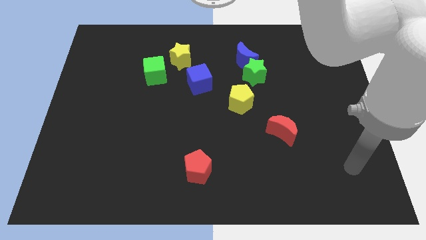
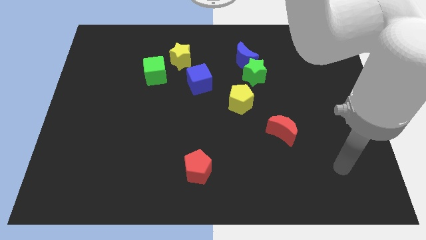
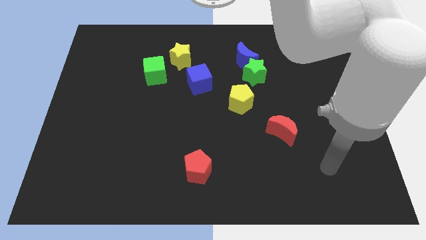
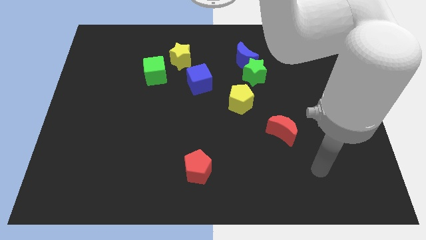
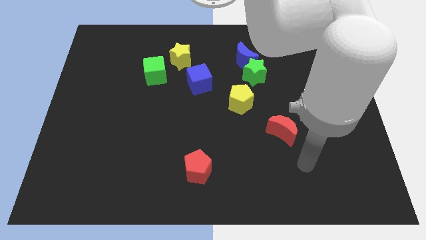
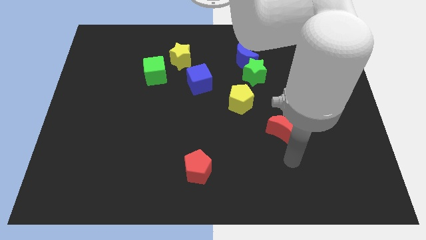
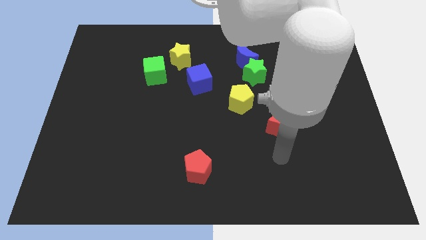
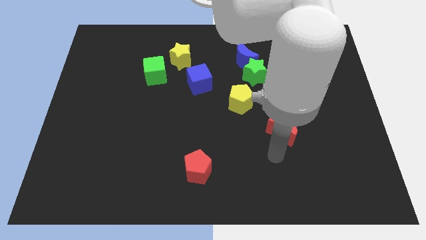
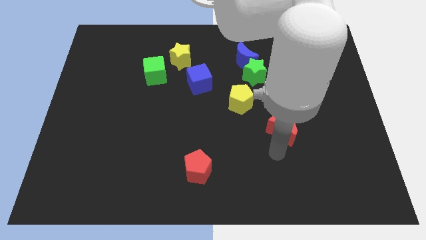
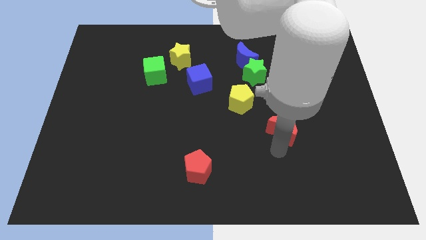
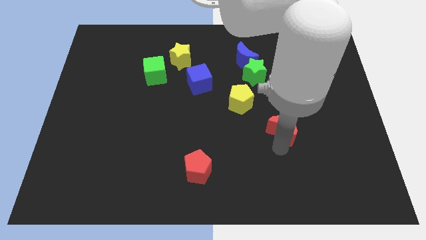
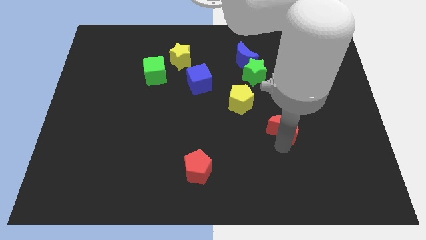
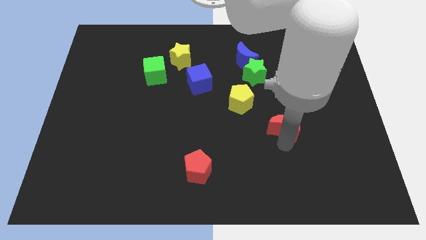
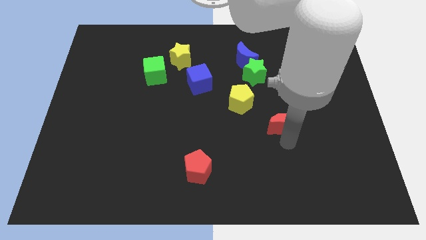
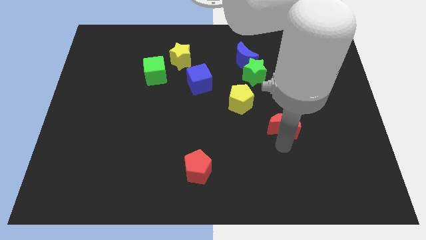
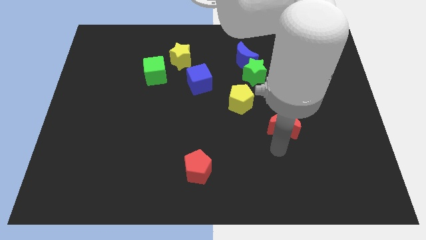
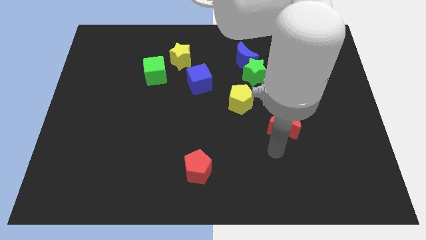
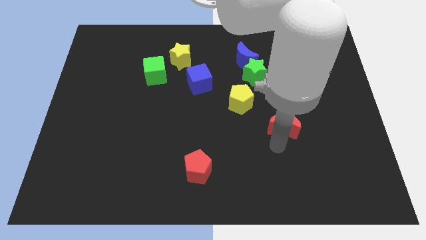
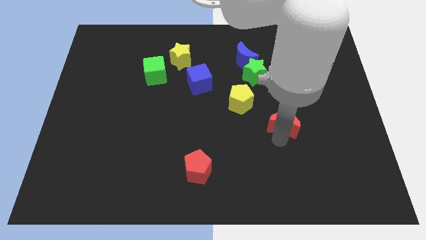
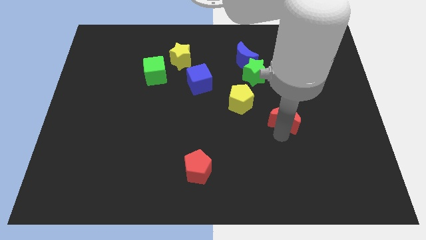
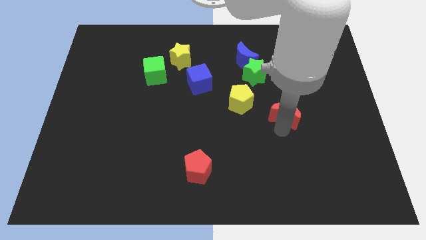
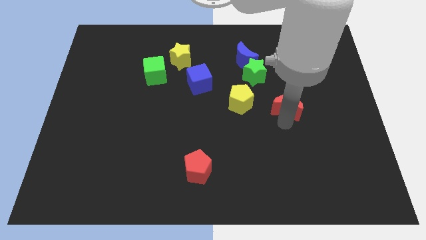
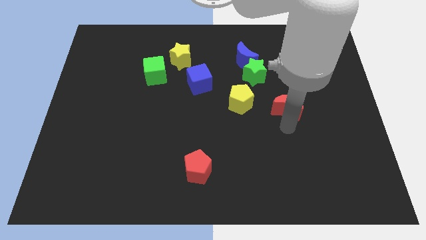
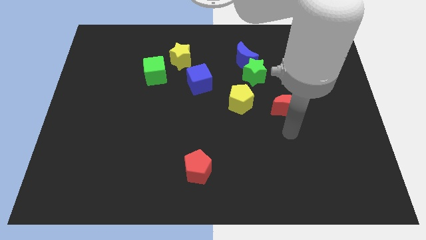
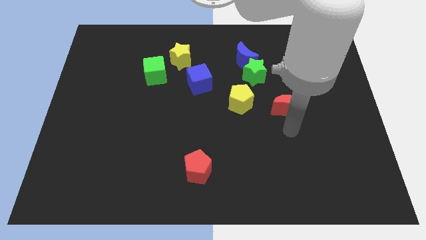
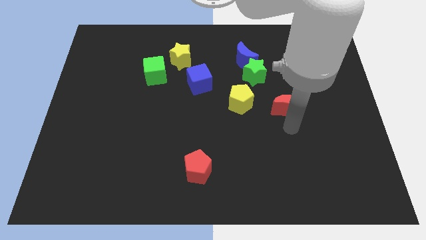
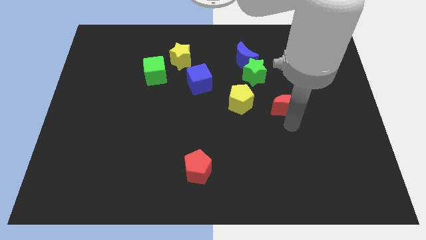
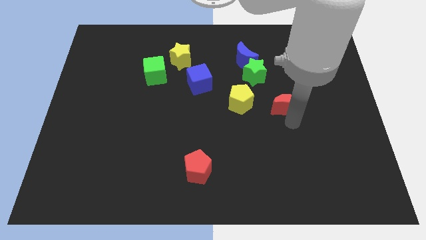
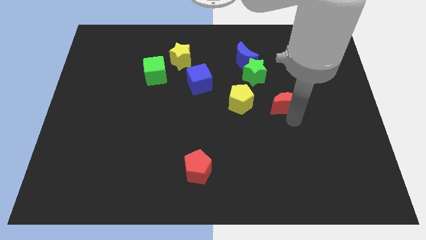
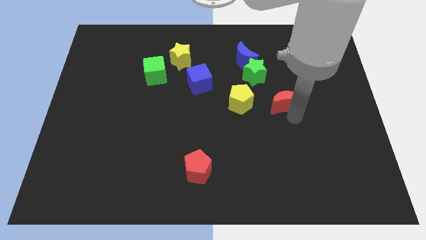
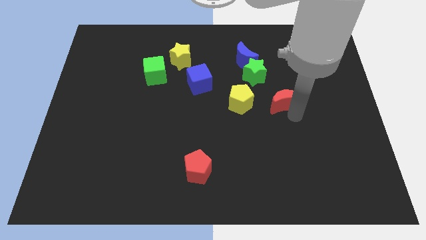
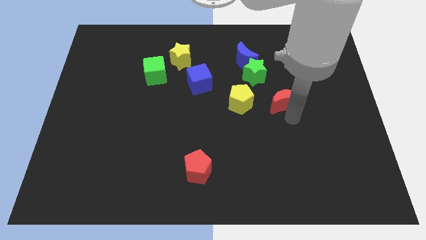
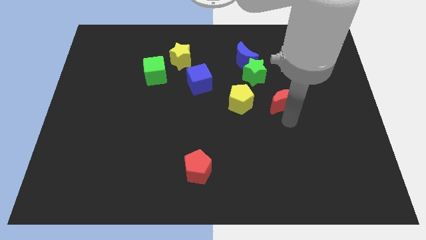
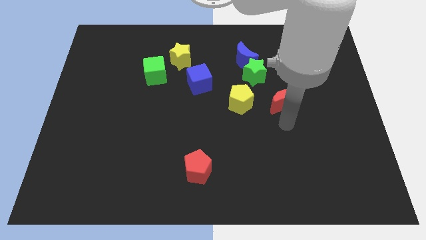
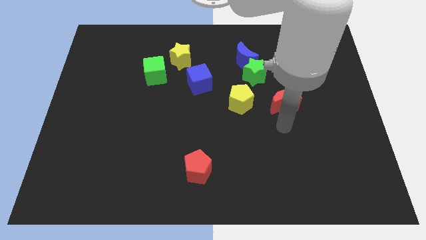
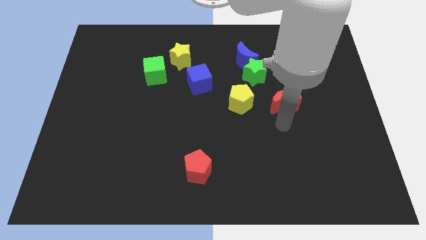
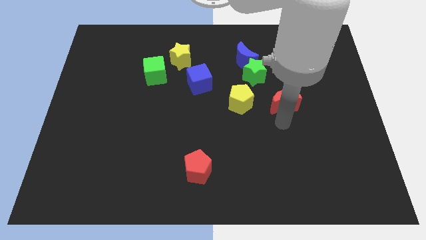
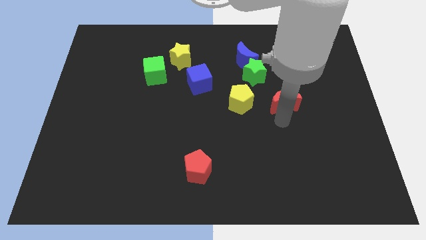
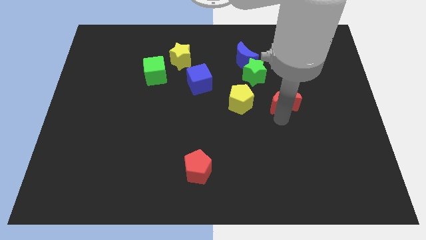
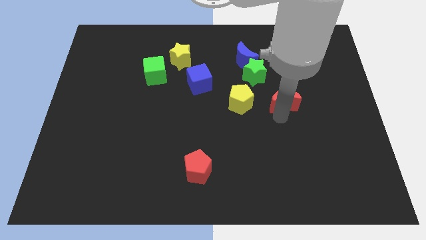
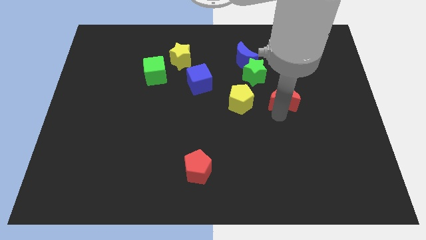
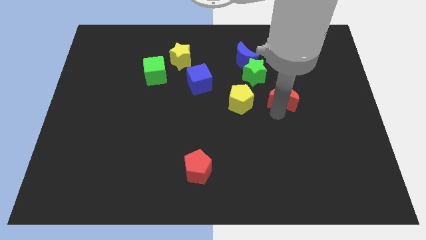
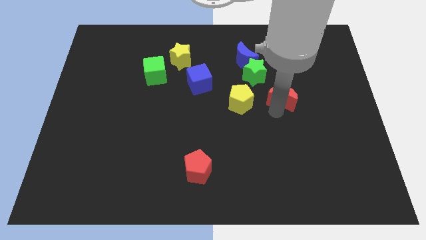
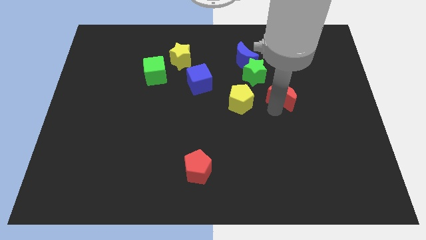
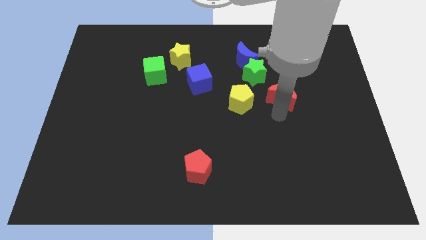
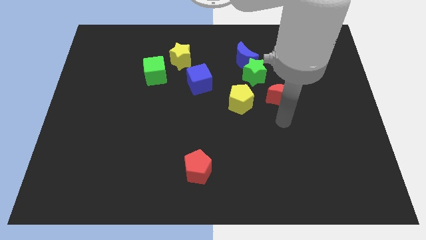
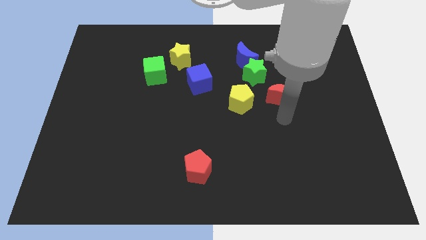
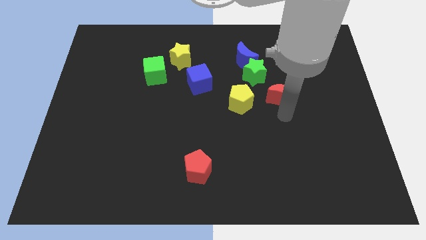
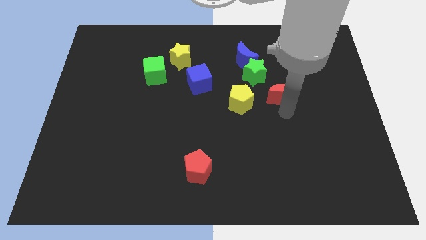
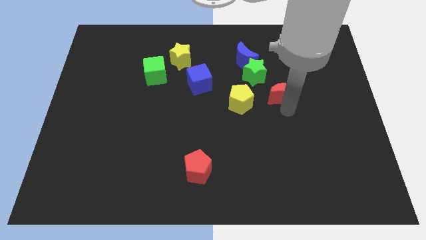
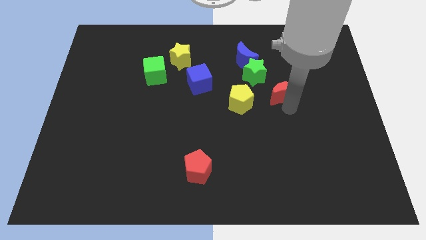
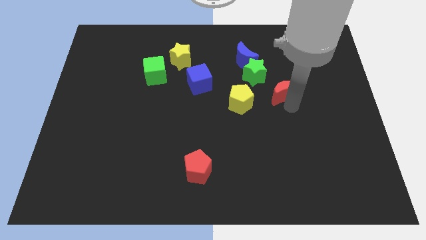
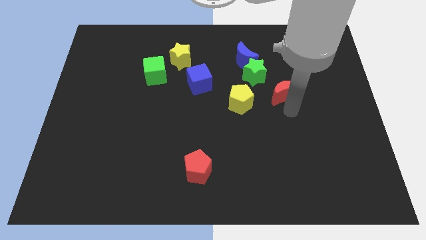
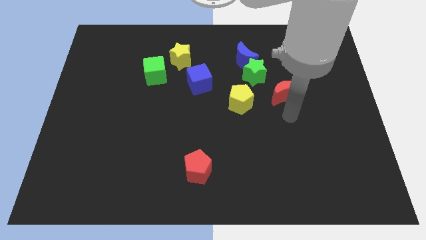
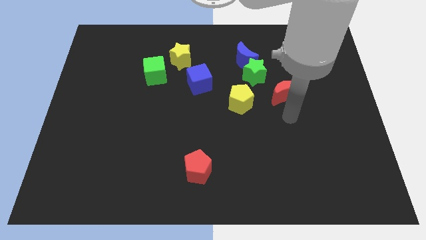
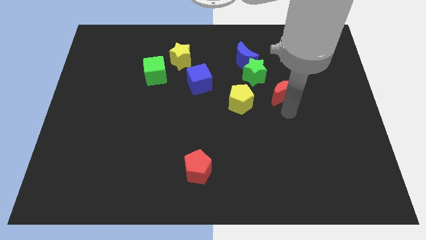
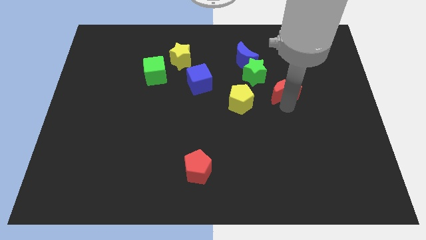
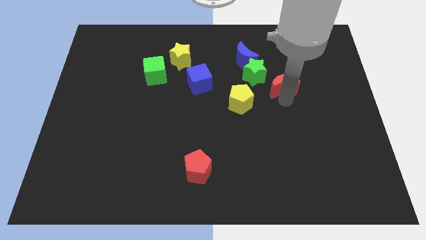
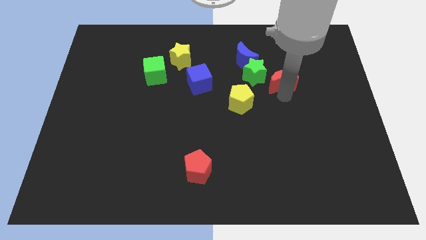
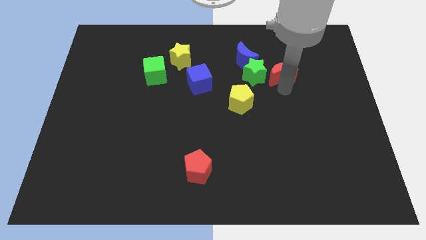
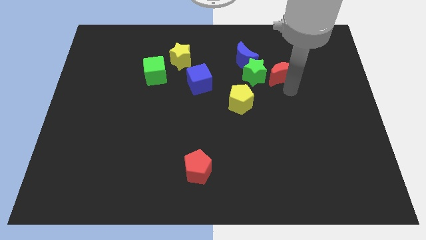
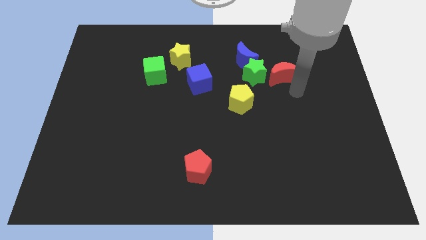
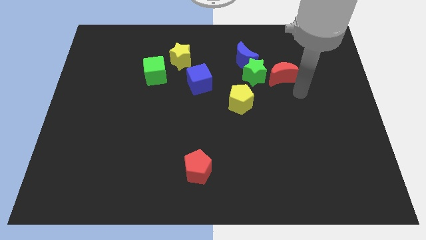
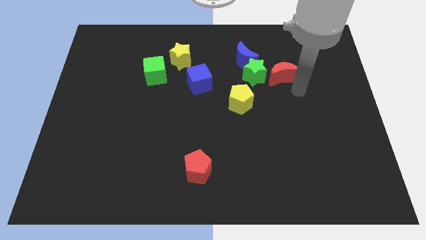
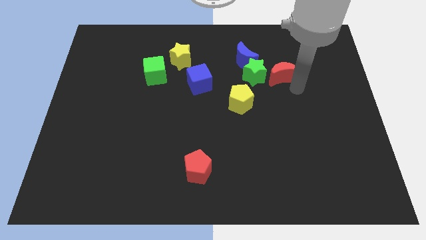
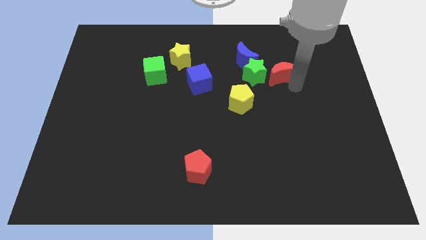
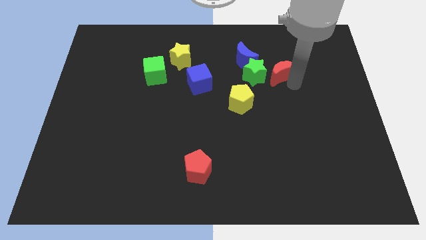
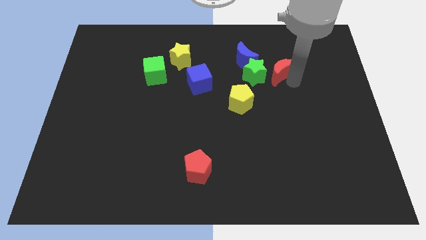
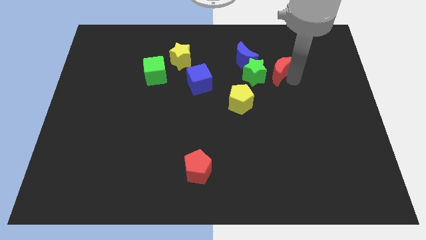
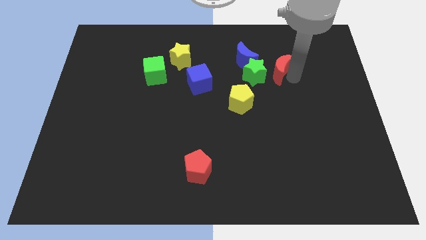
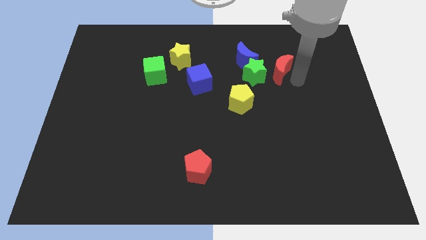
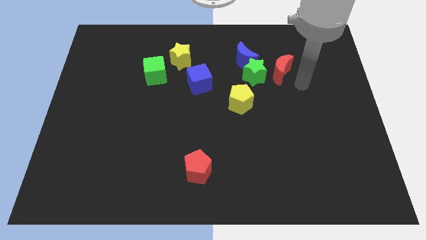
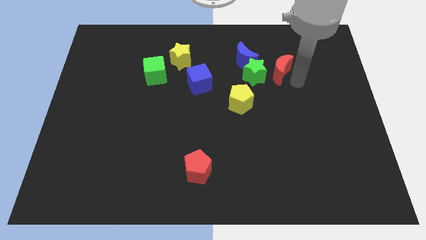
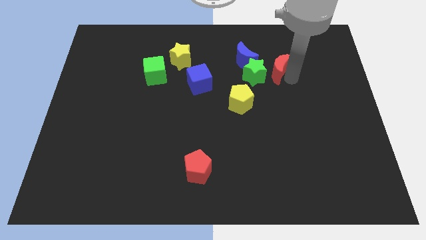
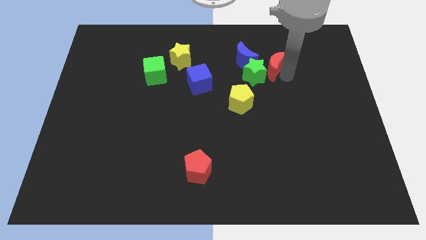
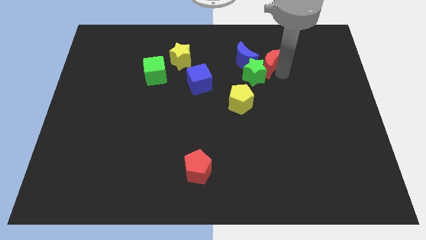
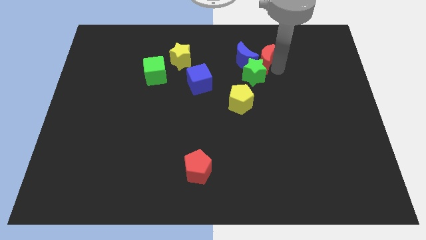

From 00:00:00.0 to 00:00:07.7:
move the red moon towards the blue moon
